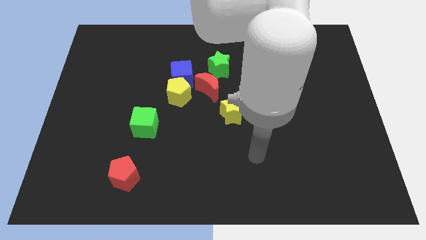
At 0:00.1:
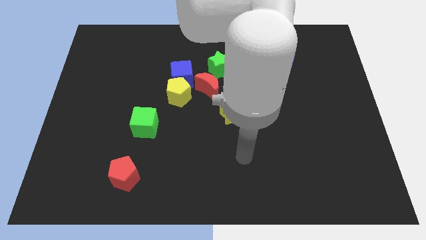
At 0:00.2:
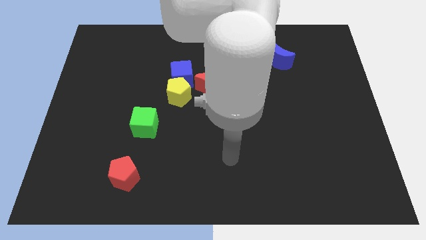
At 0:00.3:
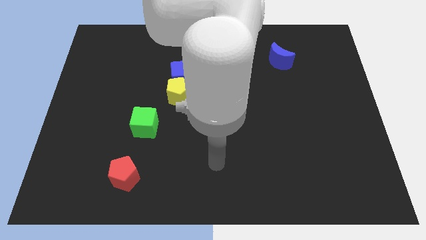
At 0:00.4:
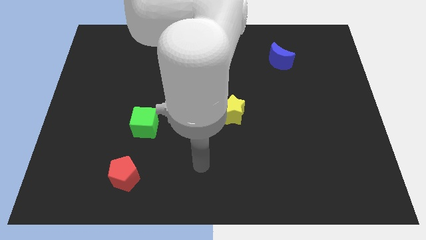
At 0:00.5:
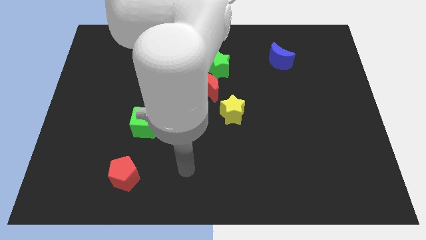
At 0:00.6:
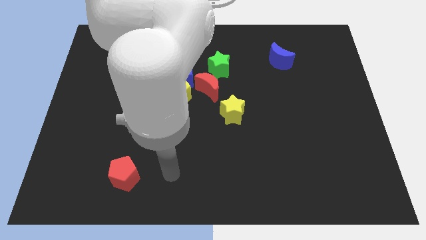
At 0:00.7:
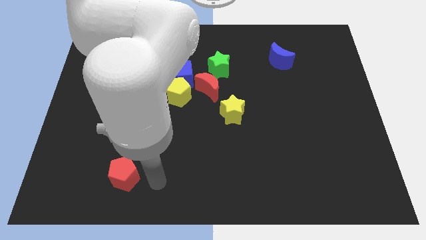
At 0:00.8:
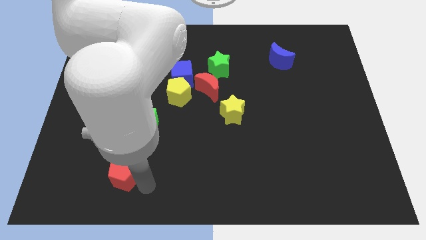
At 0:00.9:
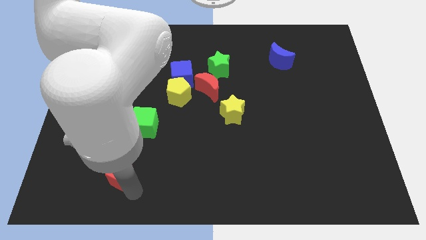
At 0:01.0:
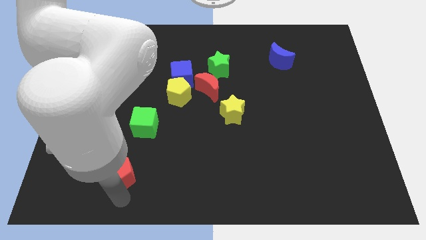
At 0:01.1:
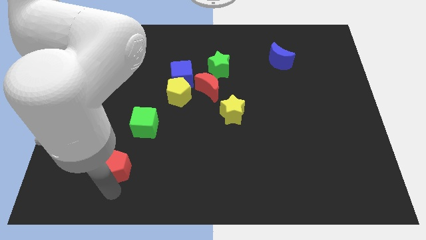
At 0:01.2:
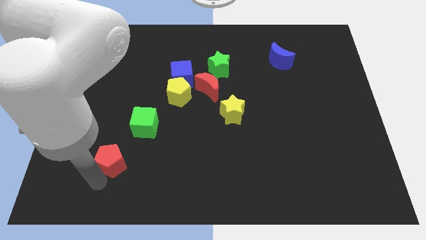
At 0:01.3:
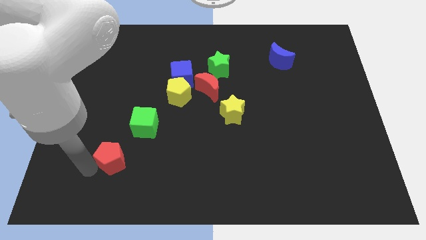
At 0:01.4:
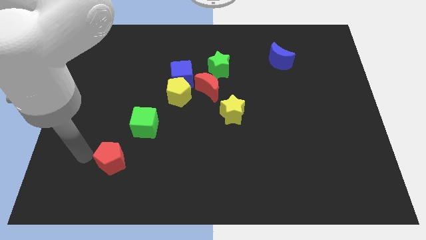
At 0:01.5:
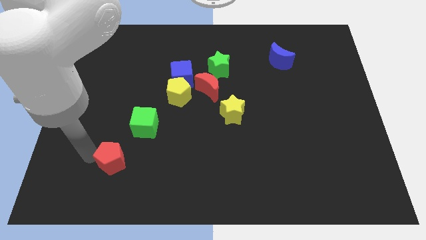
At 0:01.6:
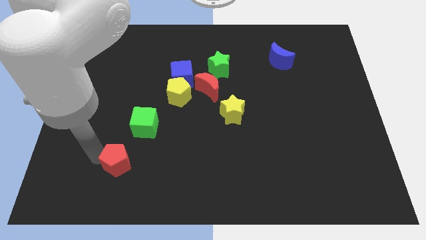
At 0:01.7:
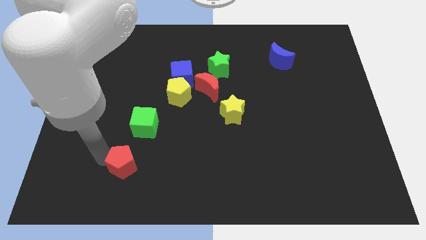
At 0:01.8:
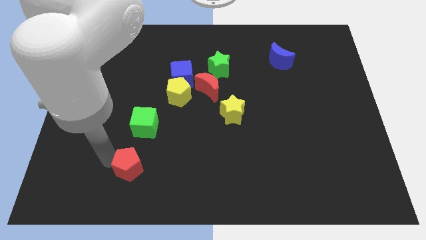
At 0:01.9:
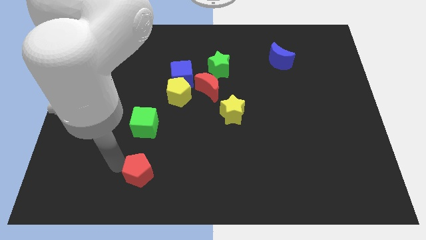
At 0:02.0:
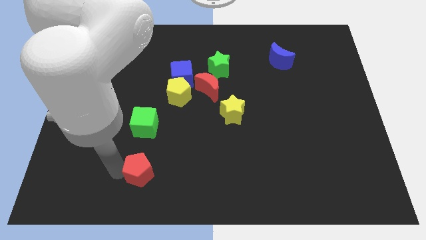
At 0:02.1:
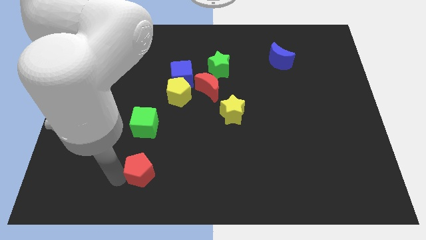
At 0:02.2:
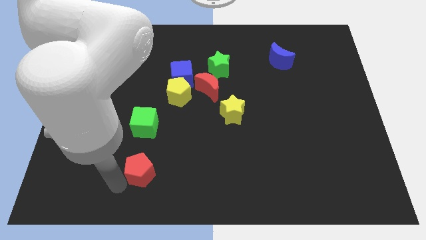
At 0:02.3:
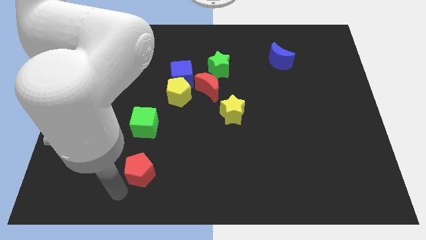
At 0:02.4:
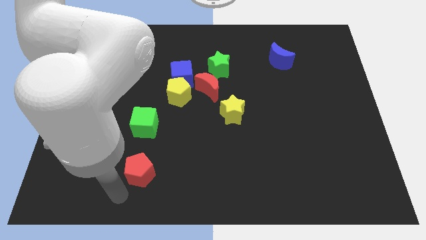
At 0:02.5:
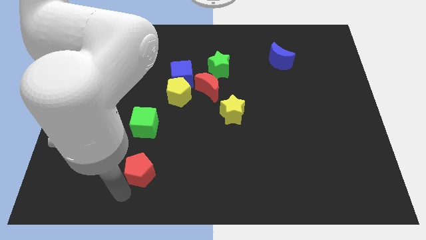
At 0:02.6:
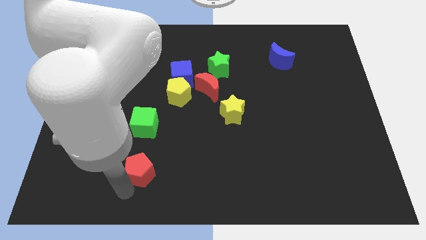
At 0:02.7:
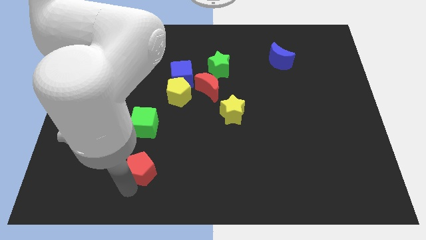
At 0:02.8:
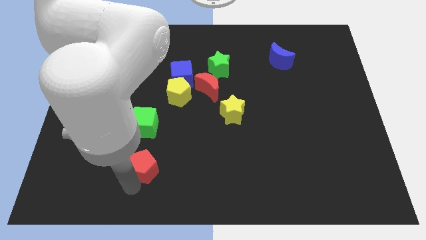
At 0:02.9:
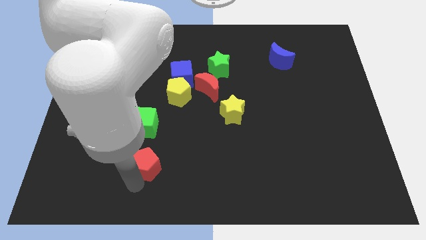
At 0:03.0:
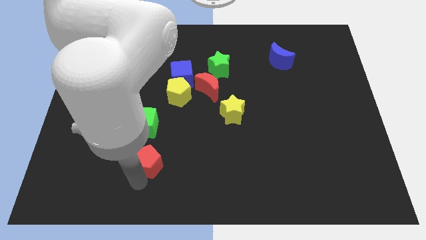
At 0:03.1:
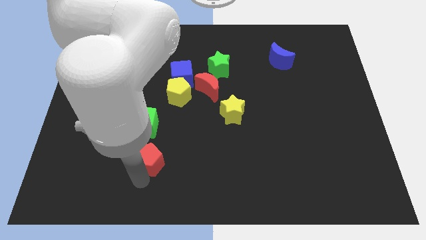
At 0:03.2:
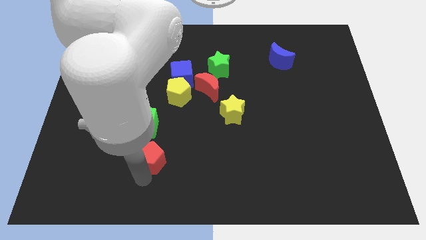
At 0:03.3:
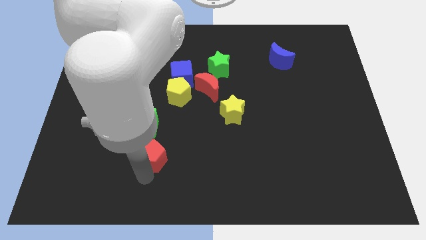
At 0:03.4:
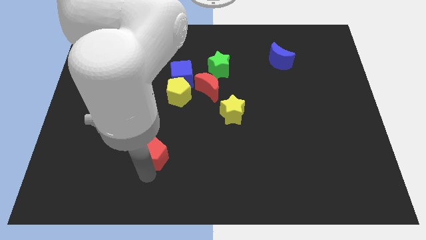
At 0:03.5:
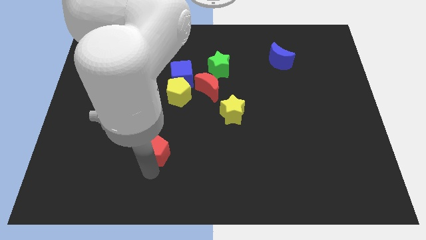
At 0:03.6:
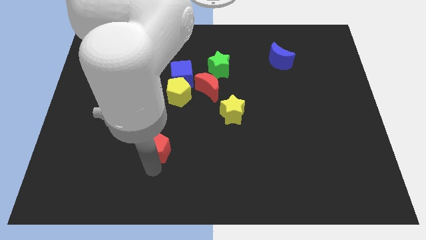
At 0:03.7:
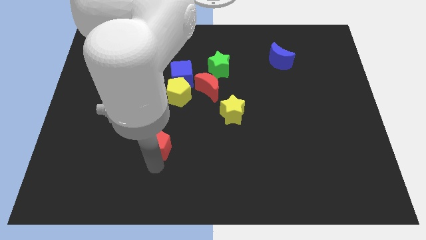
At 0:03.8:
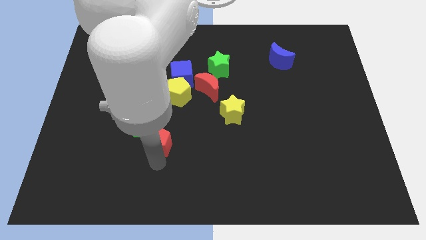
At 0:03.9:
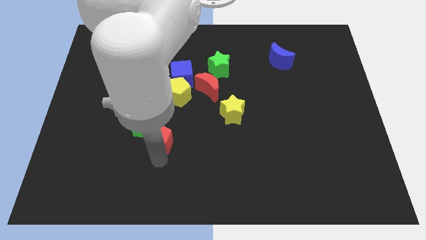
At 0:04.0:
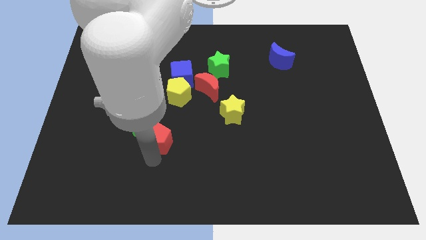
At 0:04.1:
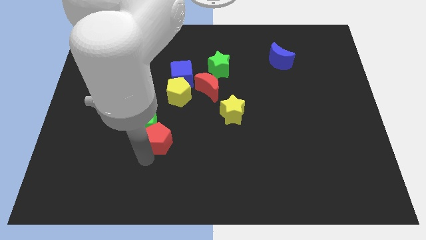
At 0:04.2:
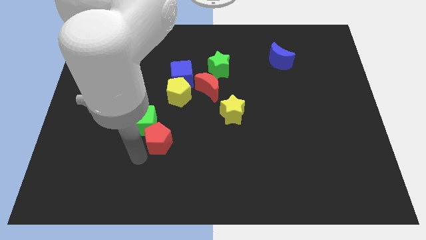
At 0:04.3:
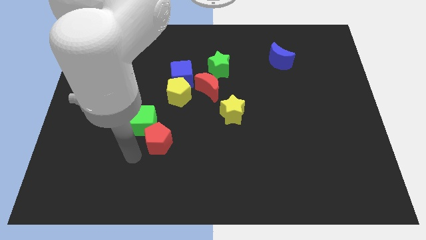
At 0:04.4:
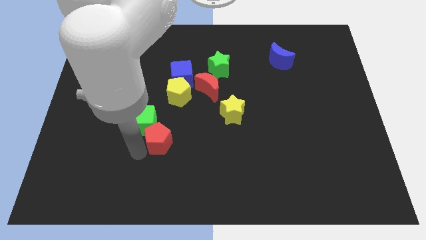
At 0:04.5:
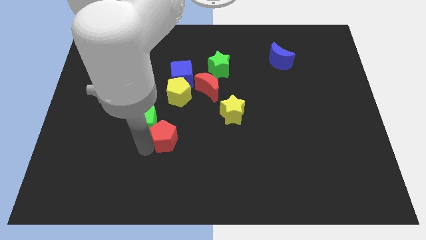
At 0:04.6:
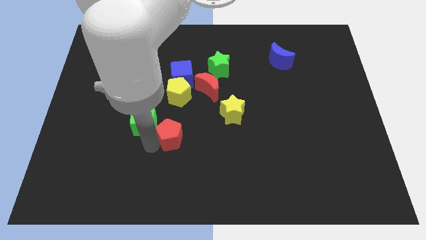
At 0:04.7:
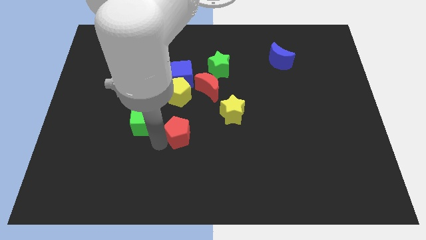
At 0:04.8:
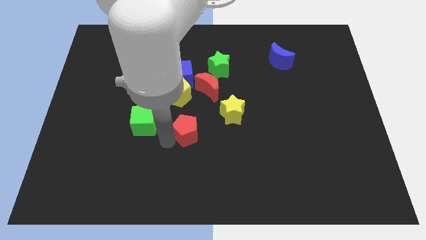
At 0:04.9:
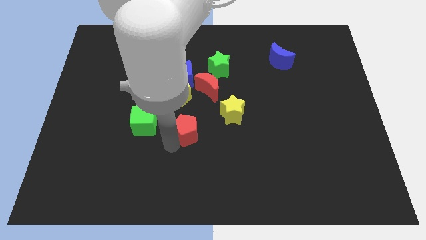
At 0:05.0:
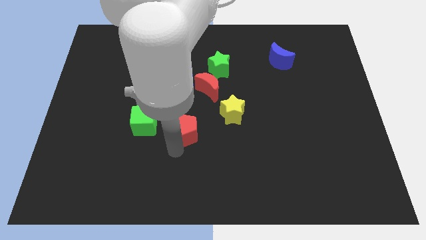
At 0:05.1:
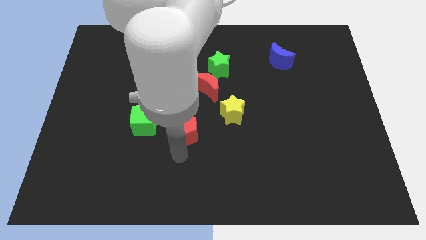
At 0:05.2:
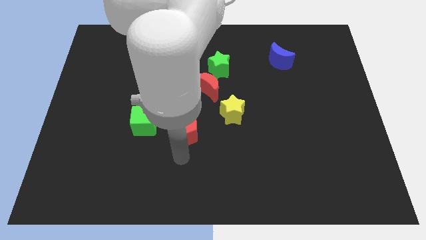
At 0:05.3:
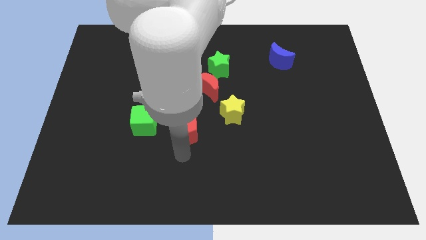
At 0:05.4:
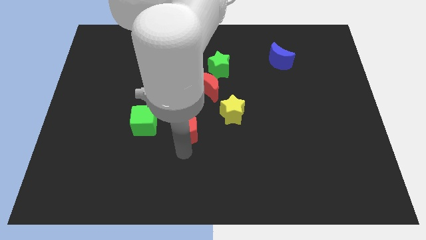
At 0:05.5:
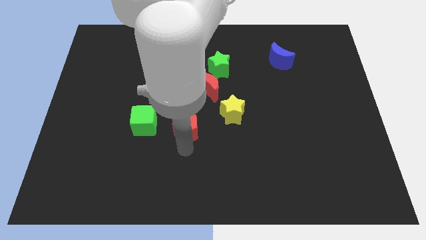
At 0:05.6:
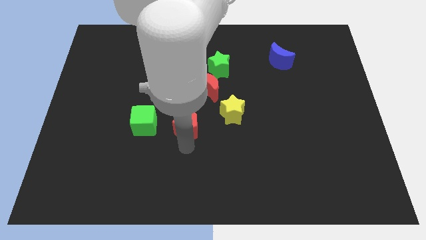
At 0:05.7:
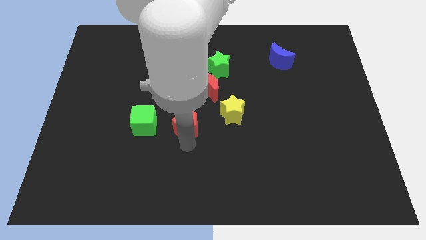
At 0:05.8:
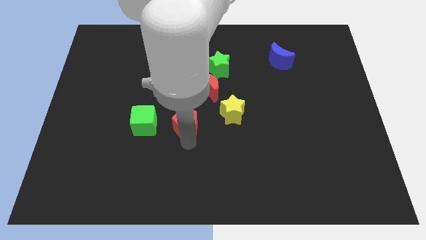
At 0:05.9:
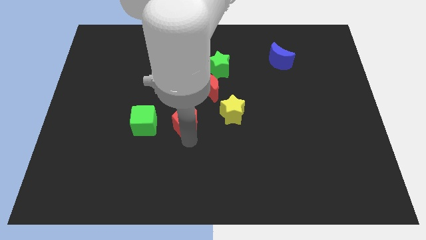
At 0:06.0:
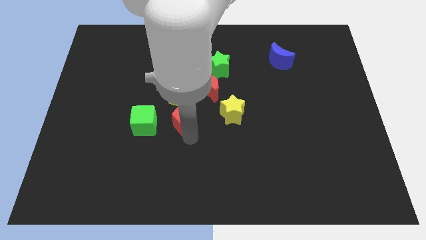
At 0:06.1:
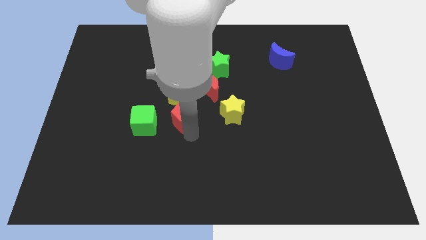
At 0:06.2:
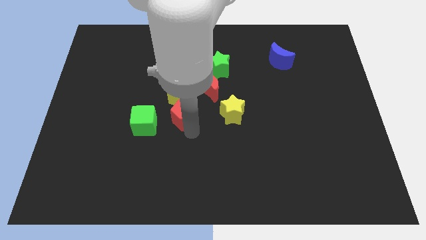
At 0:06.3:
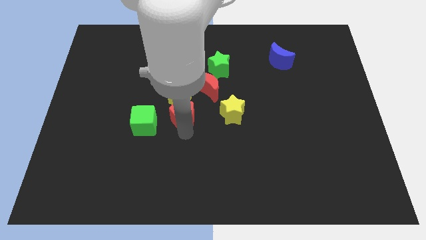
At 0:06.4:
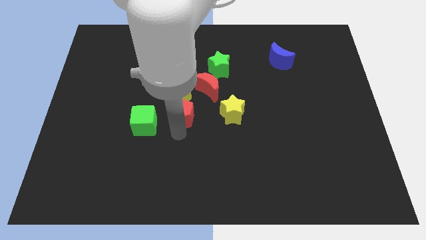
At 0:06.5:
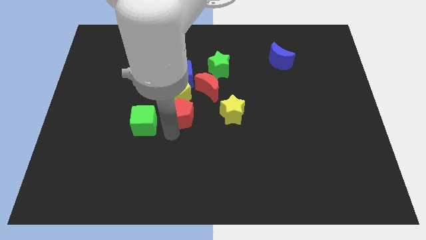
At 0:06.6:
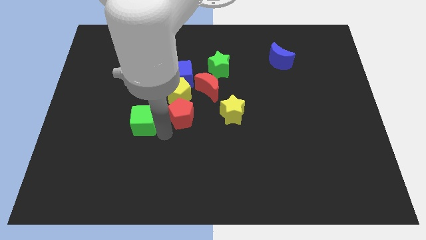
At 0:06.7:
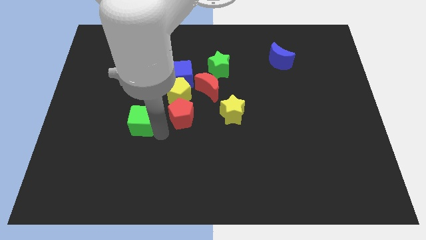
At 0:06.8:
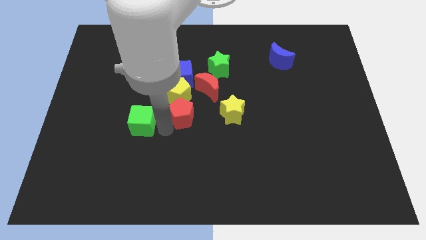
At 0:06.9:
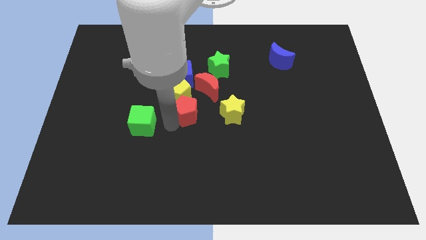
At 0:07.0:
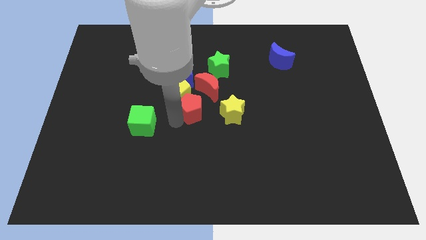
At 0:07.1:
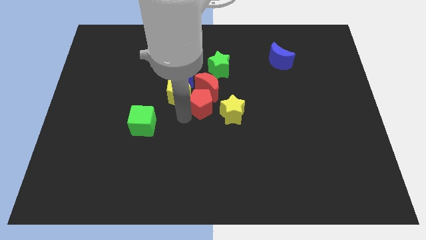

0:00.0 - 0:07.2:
push the red pentagon to the red moon
